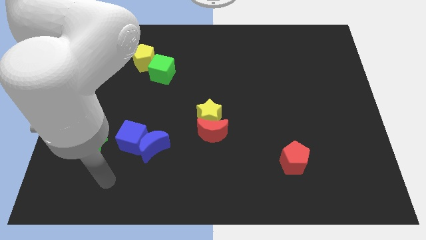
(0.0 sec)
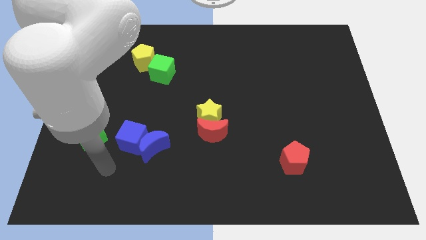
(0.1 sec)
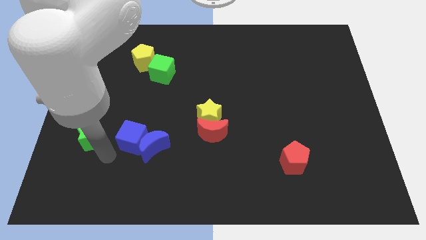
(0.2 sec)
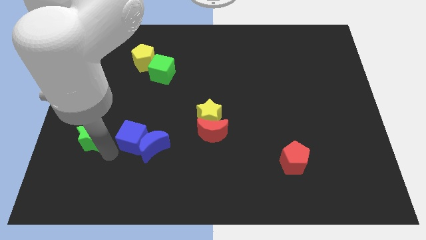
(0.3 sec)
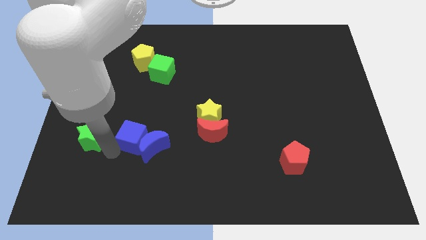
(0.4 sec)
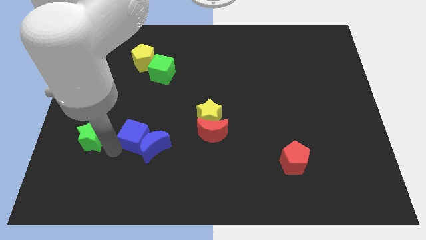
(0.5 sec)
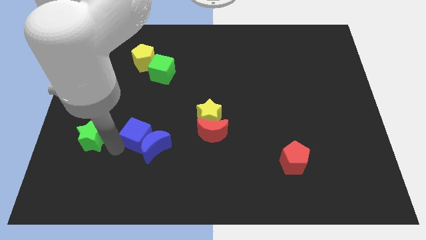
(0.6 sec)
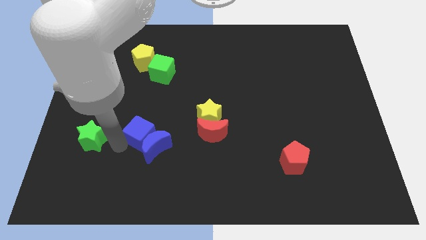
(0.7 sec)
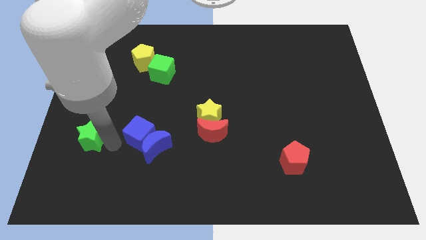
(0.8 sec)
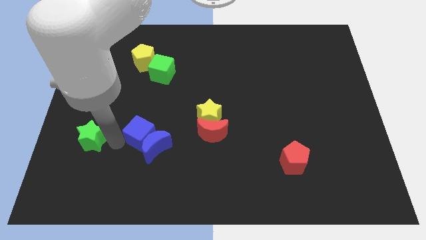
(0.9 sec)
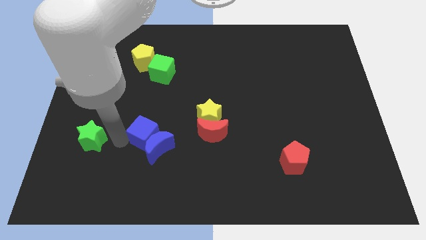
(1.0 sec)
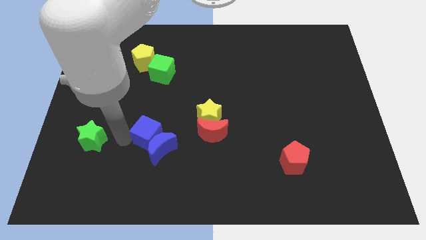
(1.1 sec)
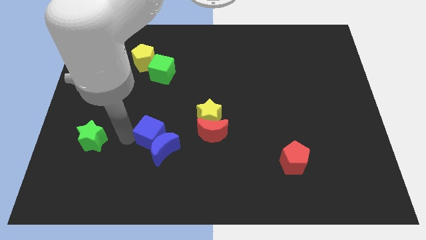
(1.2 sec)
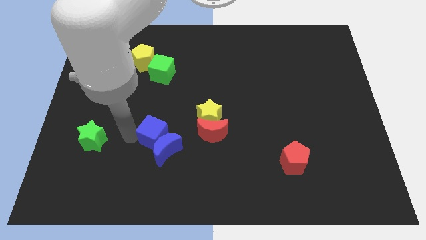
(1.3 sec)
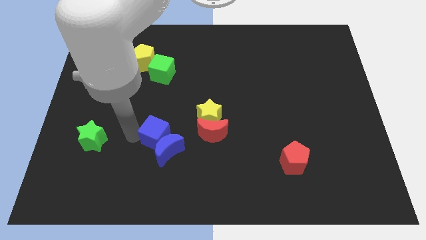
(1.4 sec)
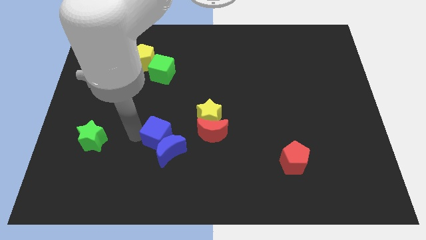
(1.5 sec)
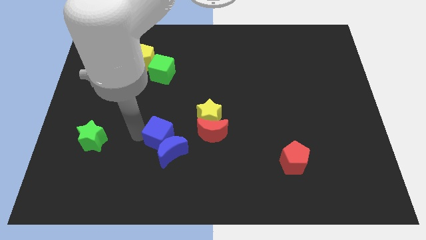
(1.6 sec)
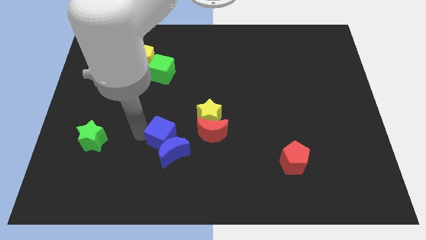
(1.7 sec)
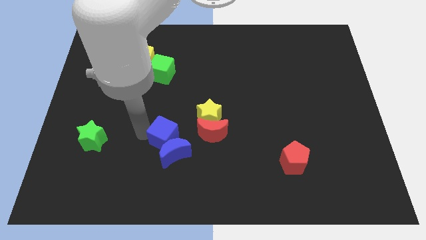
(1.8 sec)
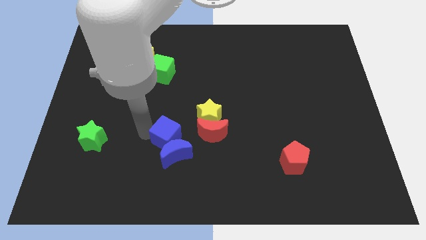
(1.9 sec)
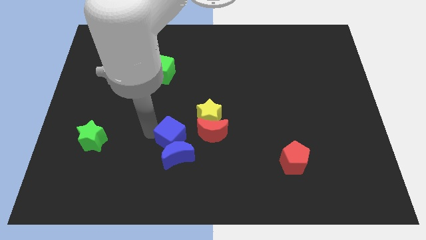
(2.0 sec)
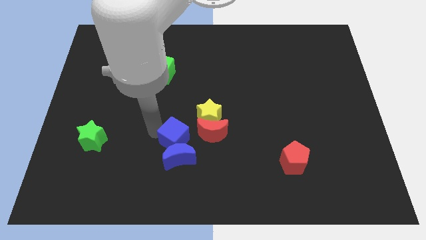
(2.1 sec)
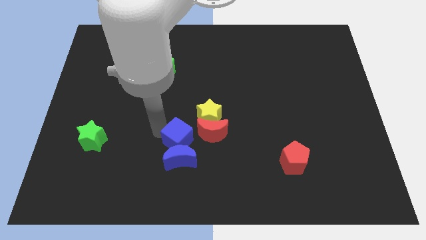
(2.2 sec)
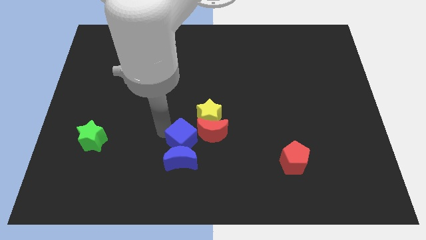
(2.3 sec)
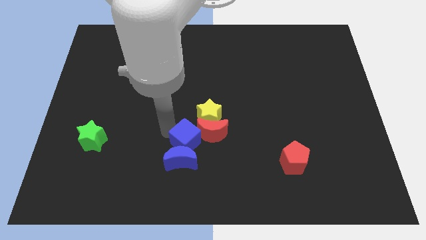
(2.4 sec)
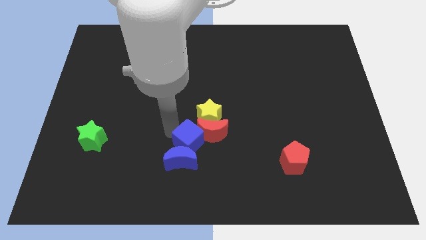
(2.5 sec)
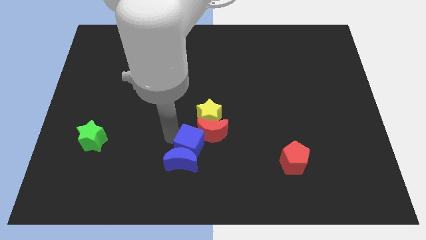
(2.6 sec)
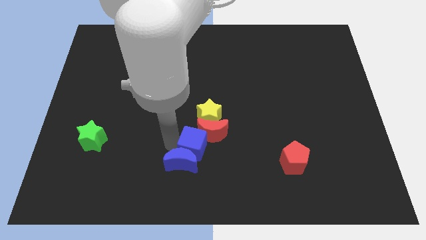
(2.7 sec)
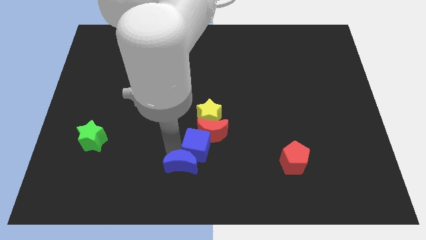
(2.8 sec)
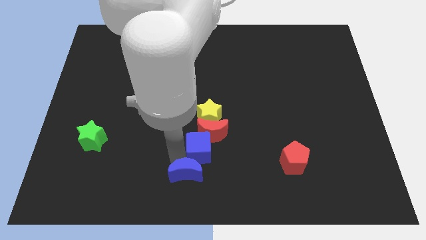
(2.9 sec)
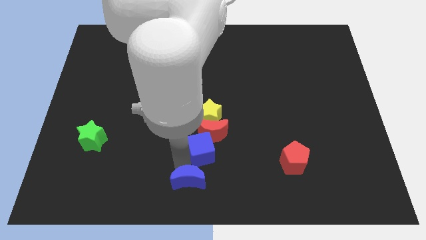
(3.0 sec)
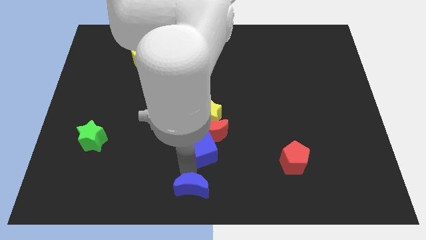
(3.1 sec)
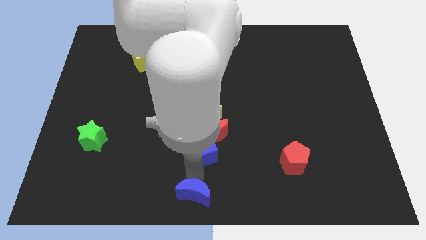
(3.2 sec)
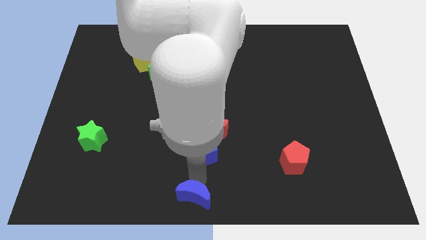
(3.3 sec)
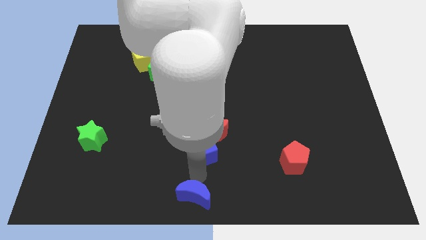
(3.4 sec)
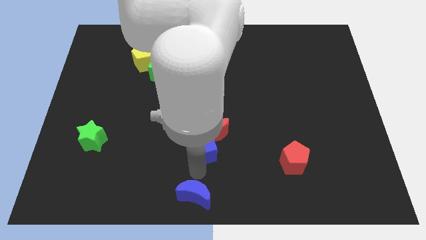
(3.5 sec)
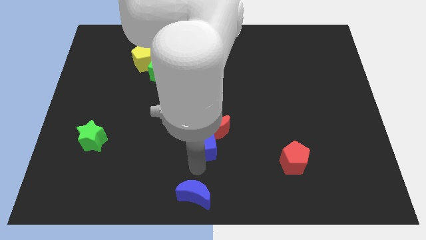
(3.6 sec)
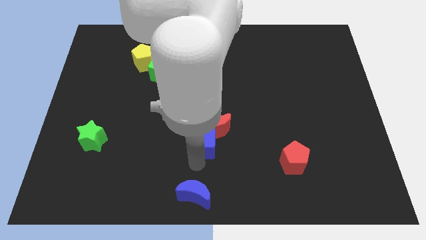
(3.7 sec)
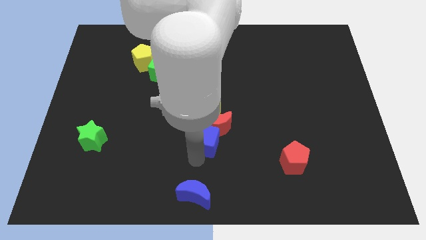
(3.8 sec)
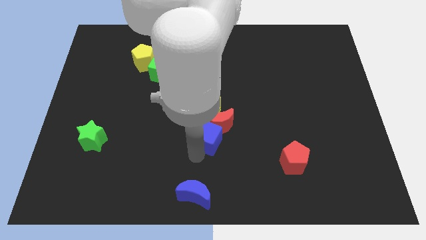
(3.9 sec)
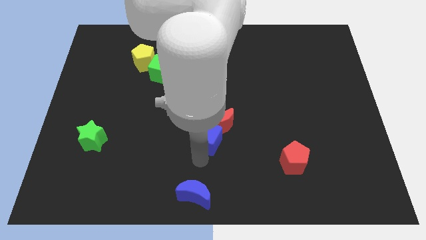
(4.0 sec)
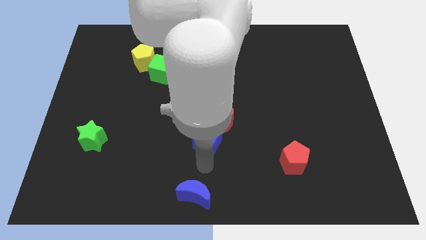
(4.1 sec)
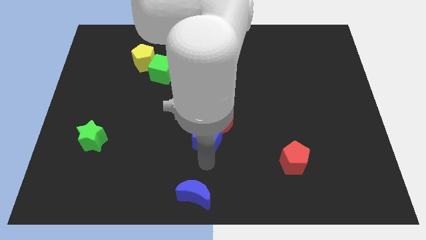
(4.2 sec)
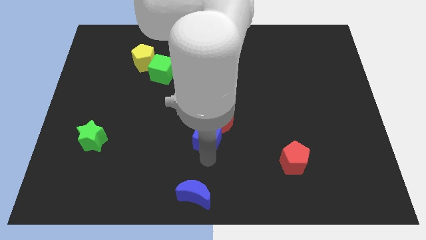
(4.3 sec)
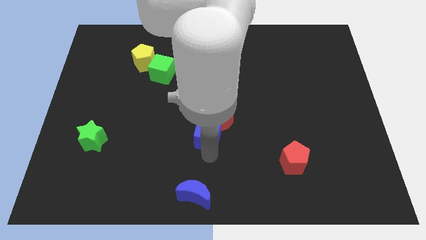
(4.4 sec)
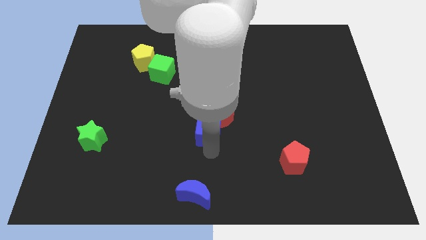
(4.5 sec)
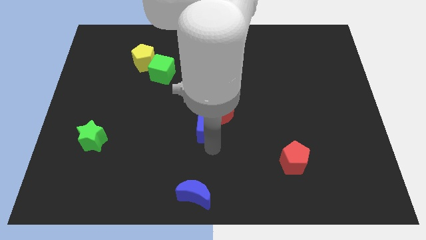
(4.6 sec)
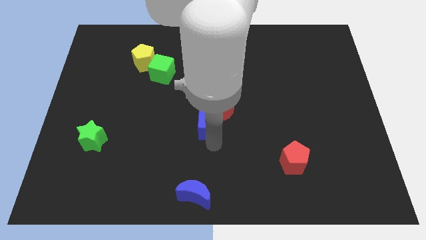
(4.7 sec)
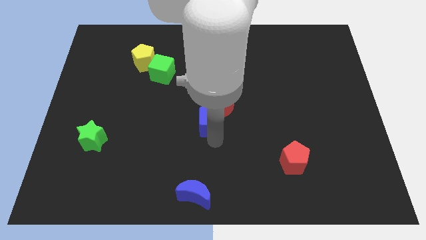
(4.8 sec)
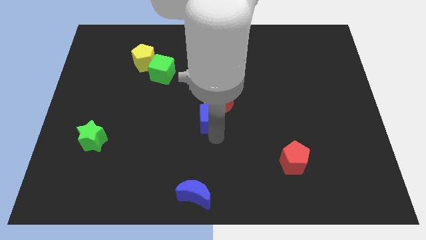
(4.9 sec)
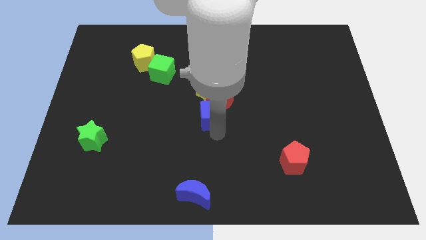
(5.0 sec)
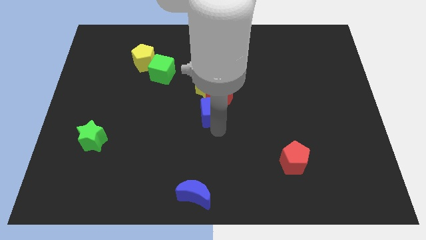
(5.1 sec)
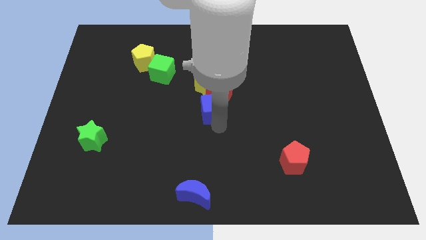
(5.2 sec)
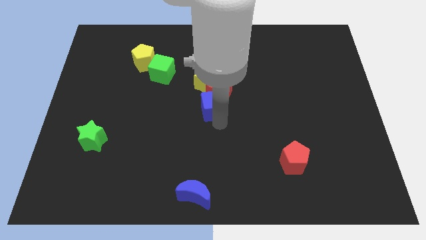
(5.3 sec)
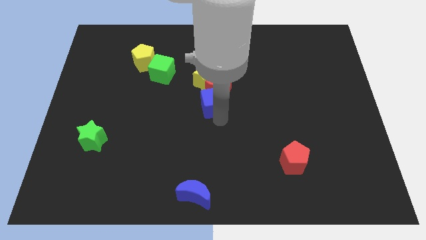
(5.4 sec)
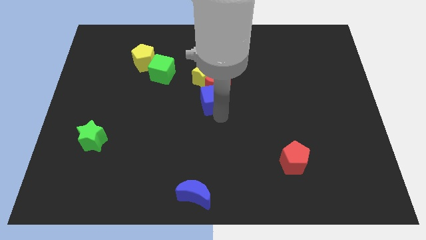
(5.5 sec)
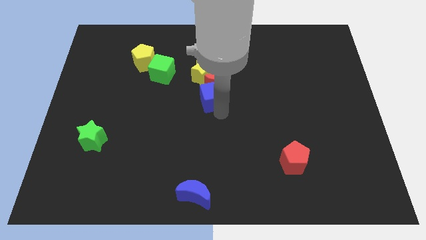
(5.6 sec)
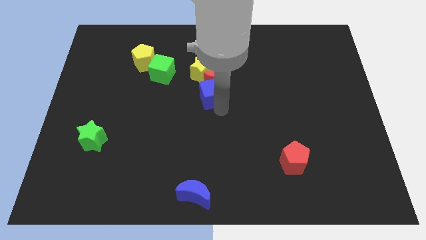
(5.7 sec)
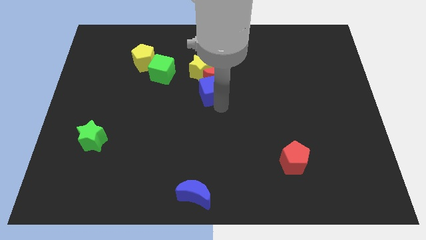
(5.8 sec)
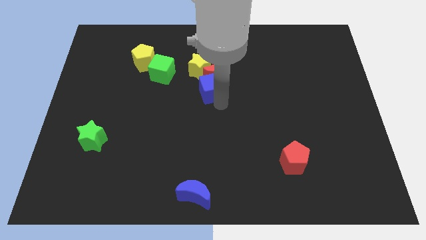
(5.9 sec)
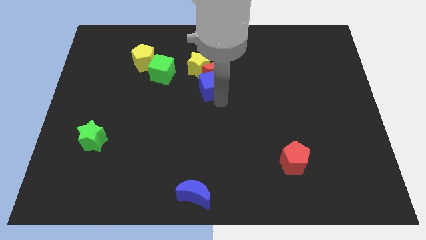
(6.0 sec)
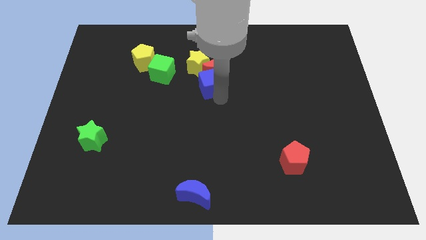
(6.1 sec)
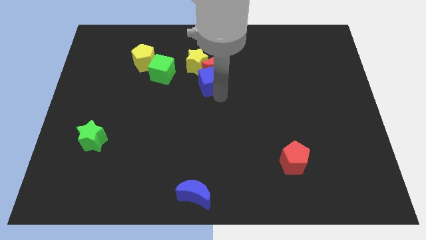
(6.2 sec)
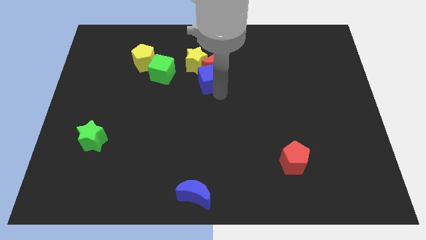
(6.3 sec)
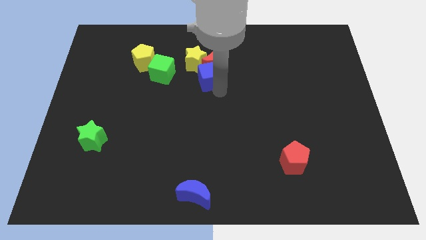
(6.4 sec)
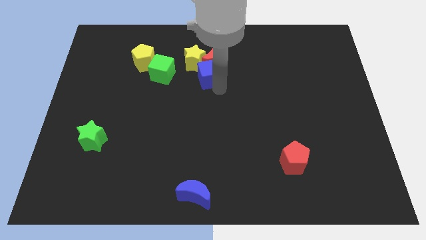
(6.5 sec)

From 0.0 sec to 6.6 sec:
move the blue cube next to the yellow star

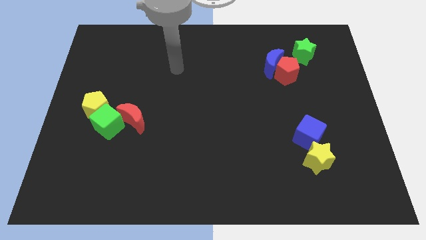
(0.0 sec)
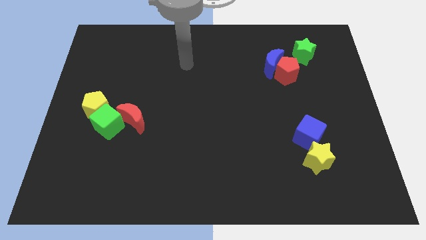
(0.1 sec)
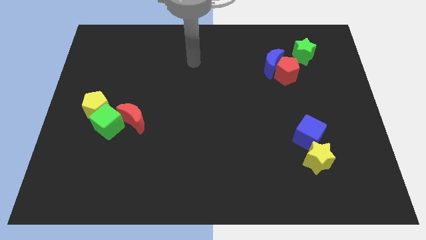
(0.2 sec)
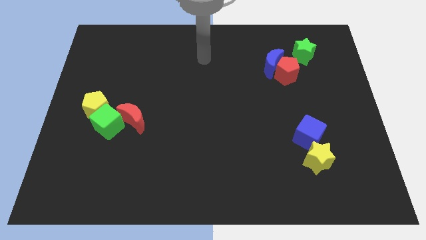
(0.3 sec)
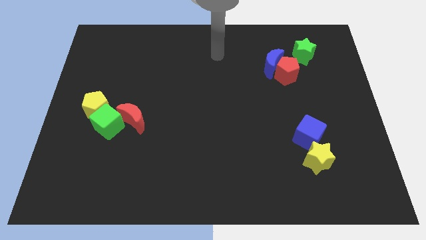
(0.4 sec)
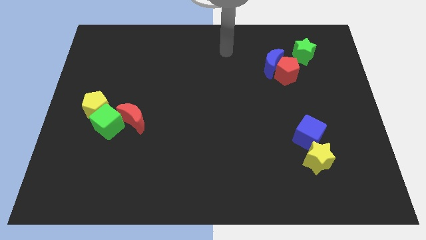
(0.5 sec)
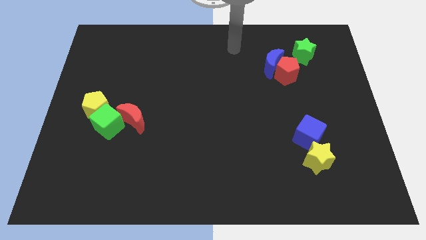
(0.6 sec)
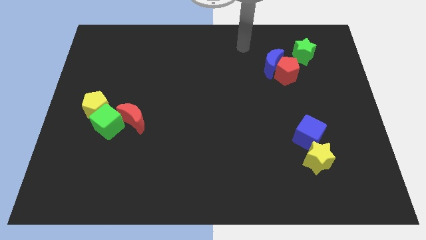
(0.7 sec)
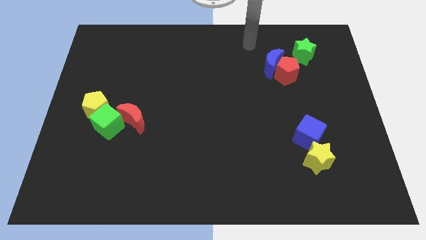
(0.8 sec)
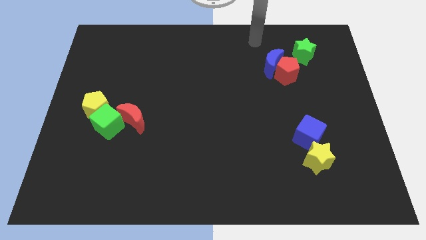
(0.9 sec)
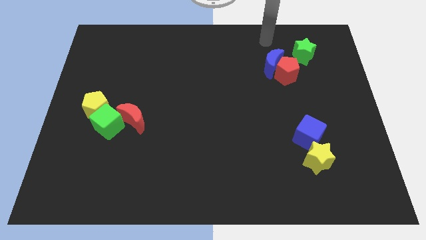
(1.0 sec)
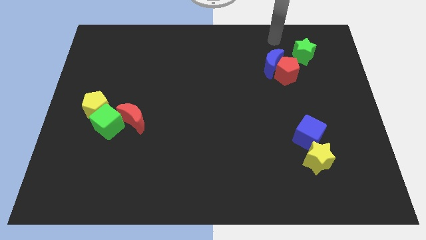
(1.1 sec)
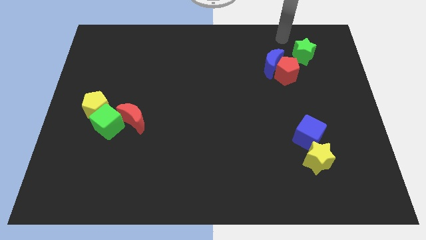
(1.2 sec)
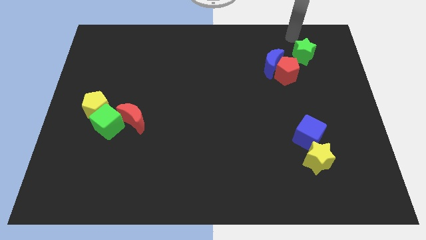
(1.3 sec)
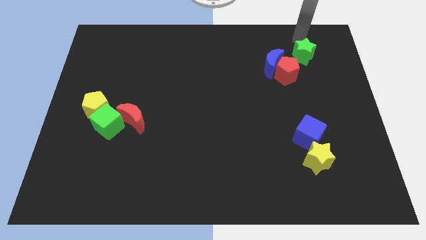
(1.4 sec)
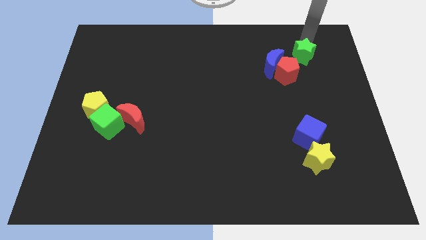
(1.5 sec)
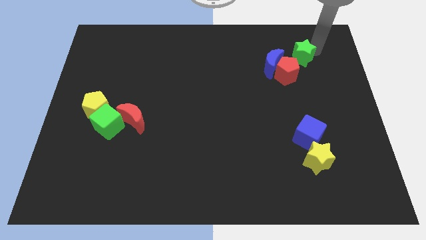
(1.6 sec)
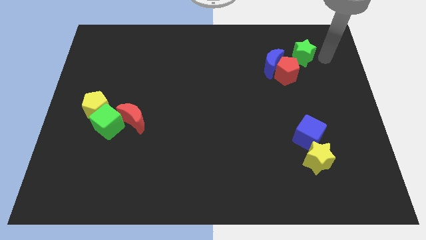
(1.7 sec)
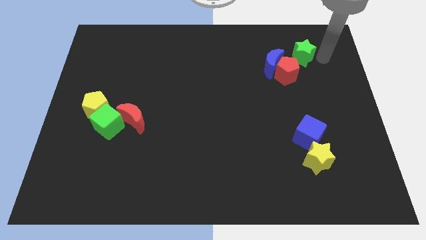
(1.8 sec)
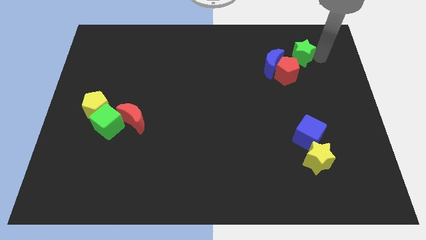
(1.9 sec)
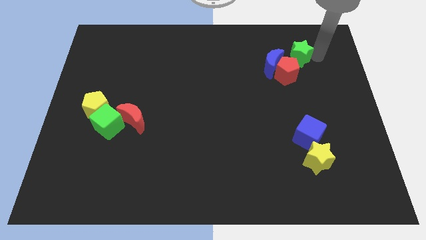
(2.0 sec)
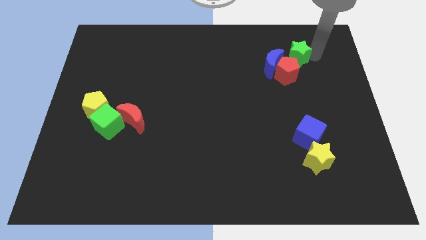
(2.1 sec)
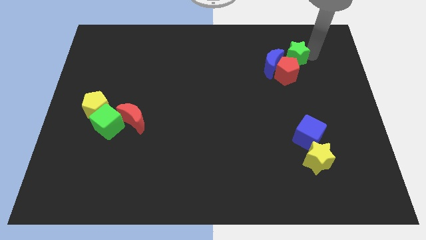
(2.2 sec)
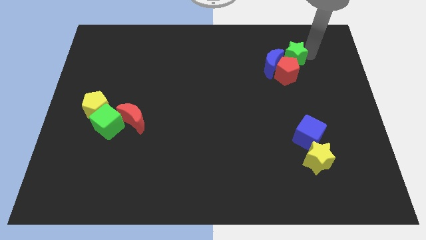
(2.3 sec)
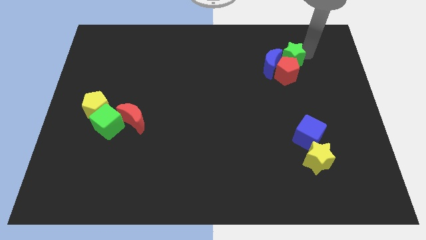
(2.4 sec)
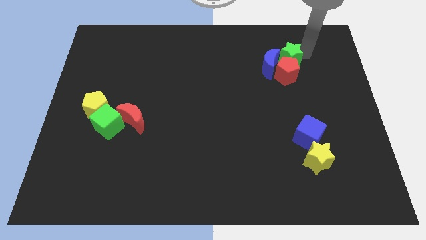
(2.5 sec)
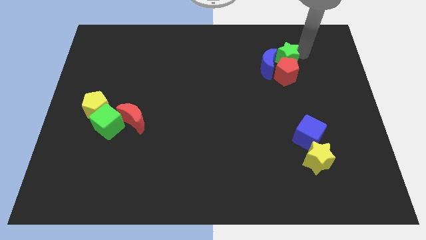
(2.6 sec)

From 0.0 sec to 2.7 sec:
slide the green star to the blue moon
